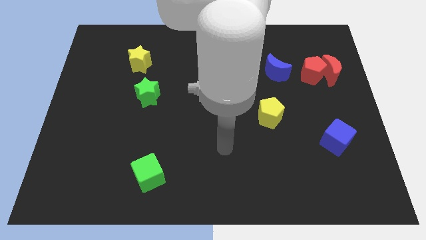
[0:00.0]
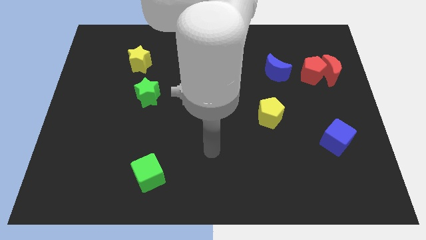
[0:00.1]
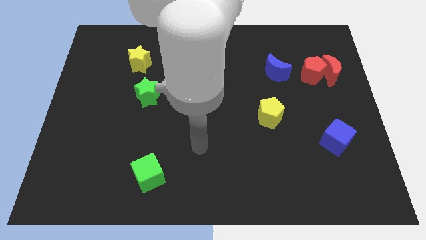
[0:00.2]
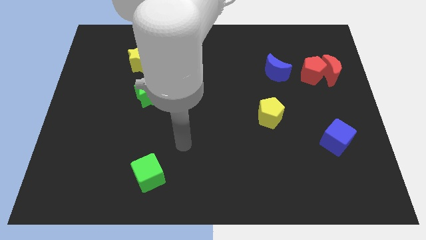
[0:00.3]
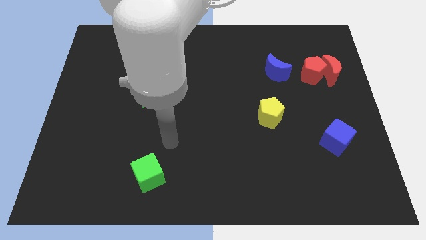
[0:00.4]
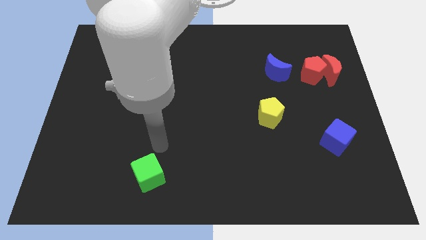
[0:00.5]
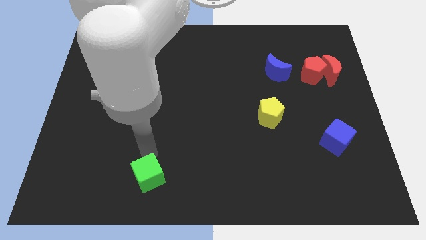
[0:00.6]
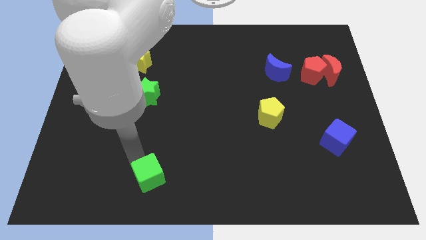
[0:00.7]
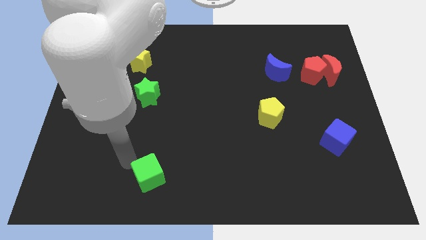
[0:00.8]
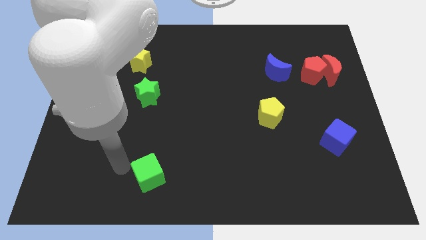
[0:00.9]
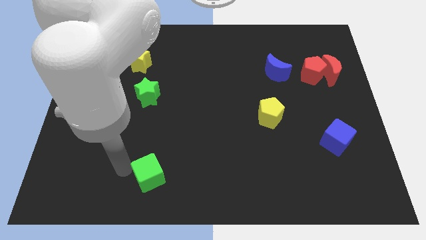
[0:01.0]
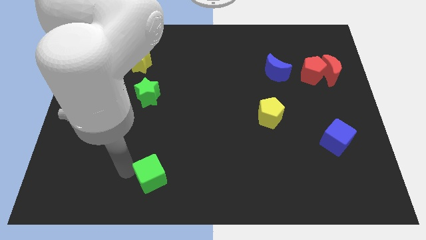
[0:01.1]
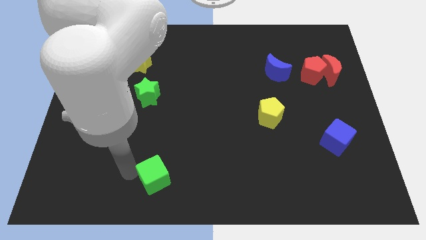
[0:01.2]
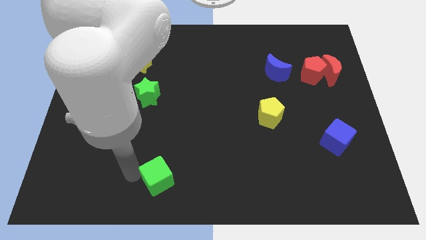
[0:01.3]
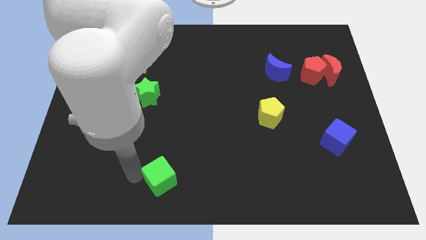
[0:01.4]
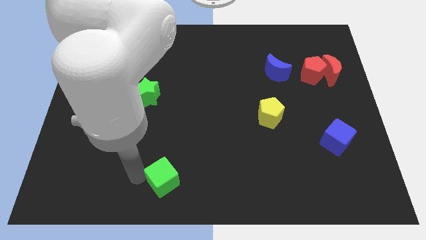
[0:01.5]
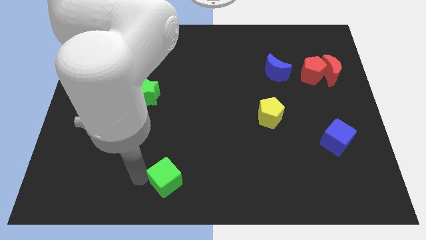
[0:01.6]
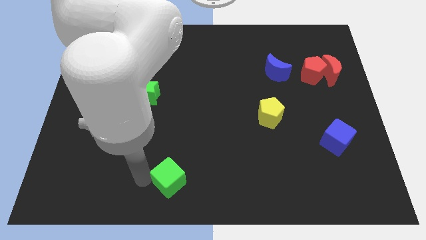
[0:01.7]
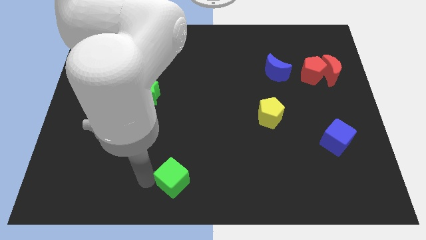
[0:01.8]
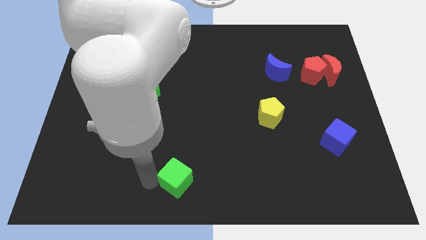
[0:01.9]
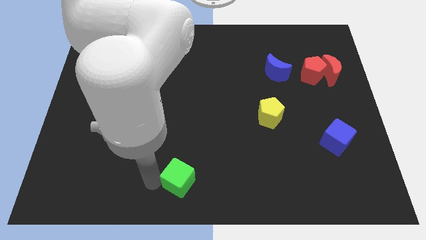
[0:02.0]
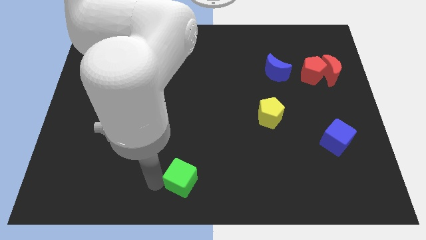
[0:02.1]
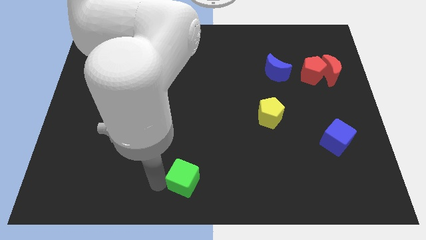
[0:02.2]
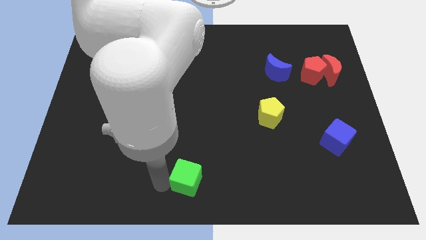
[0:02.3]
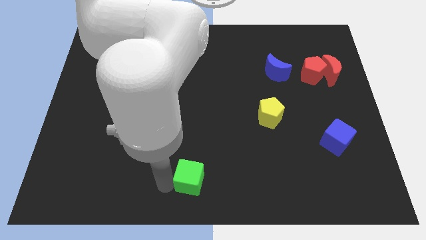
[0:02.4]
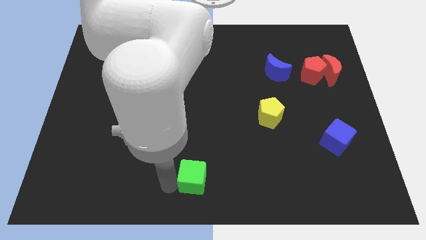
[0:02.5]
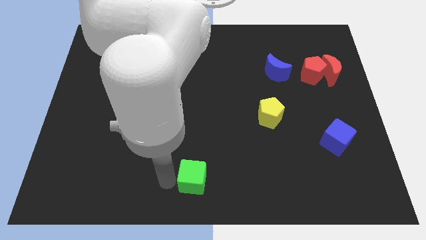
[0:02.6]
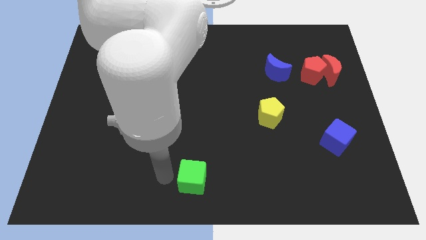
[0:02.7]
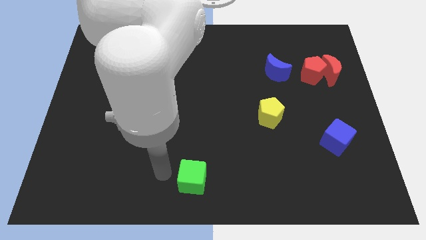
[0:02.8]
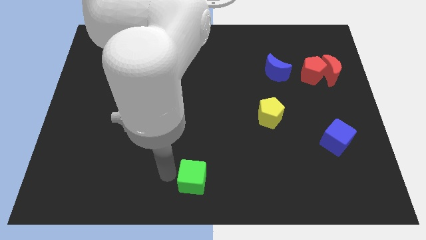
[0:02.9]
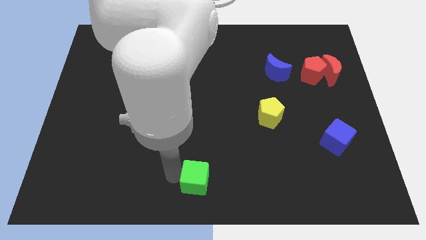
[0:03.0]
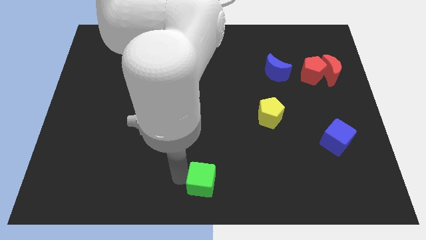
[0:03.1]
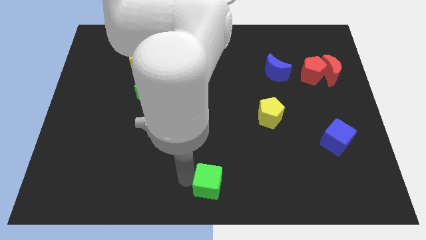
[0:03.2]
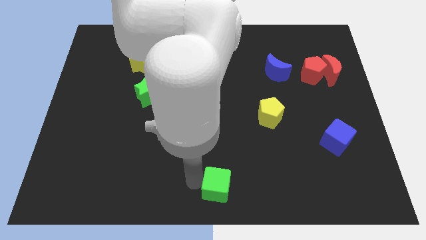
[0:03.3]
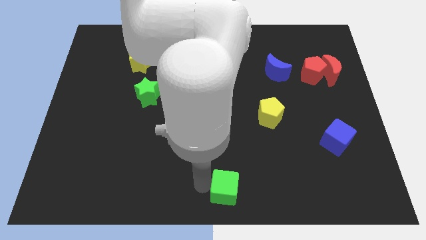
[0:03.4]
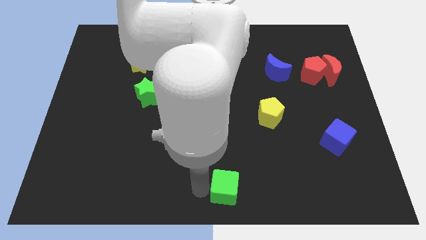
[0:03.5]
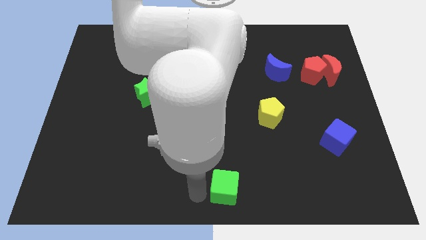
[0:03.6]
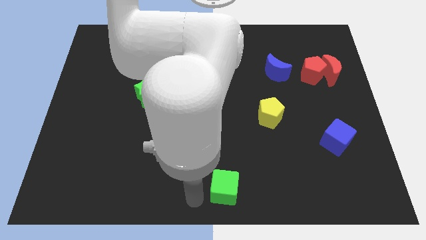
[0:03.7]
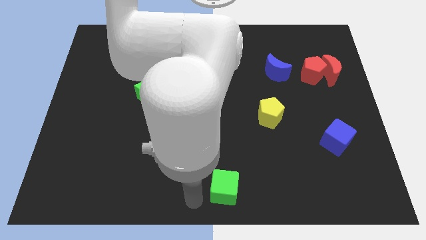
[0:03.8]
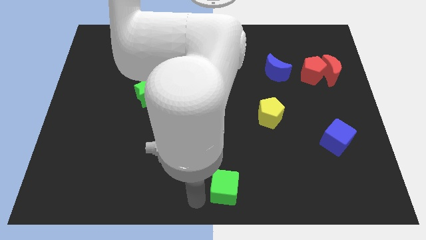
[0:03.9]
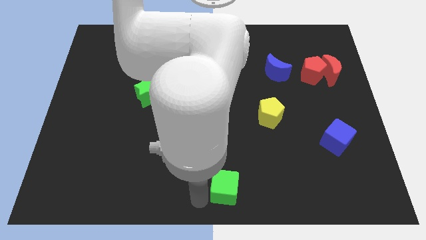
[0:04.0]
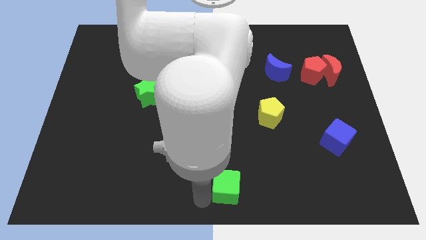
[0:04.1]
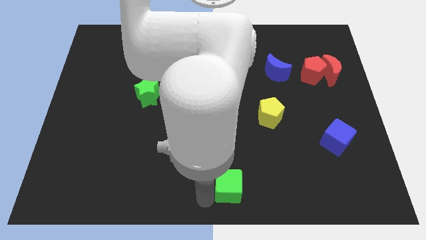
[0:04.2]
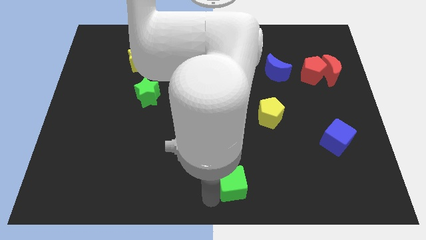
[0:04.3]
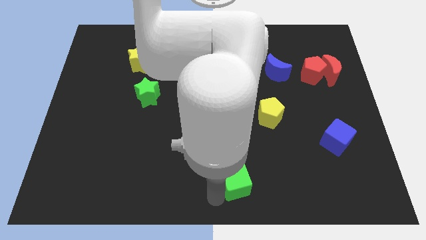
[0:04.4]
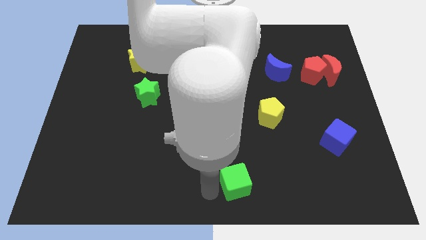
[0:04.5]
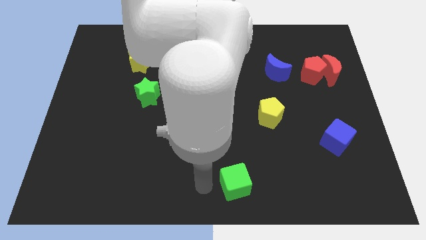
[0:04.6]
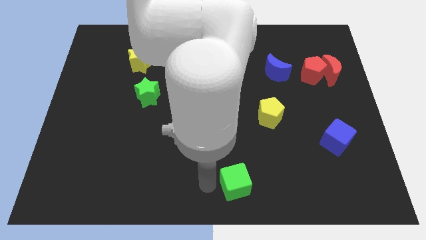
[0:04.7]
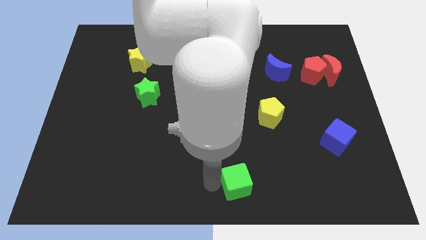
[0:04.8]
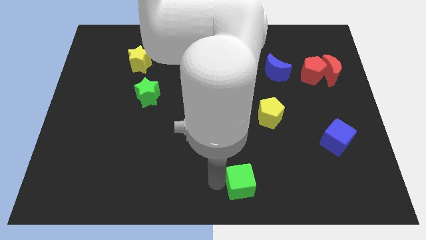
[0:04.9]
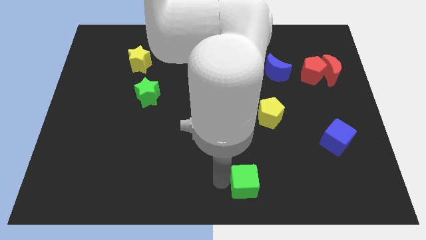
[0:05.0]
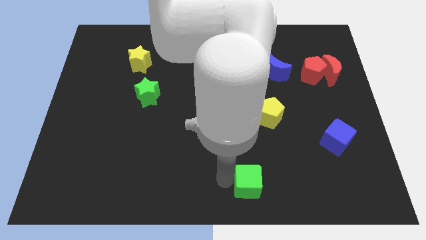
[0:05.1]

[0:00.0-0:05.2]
push the green cube to the right

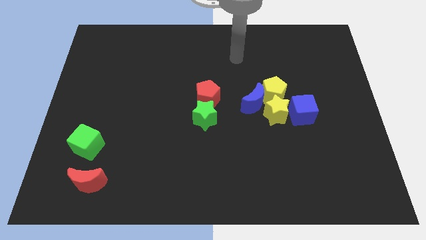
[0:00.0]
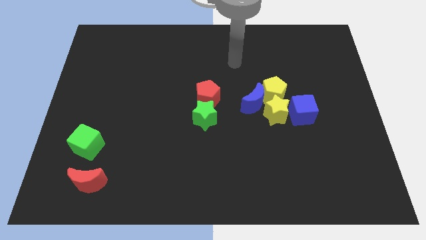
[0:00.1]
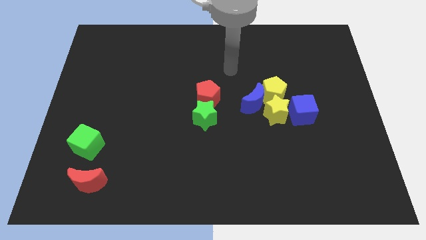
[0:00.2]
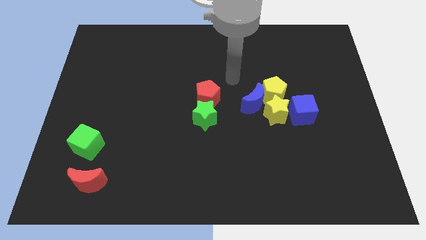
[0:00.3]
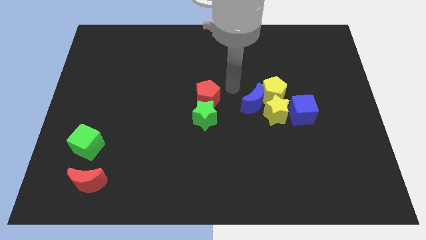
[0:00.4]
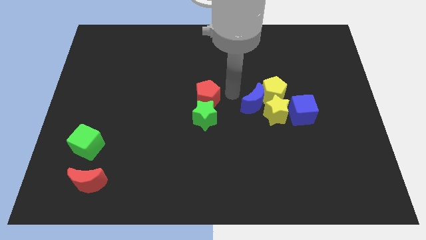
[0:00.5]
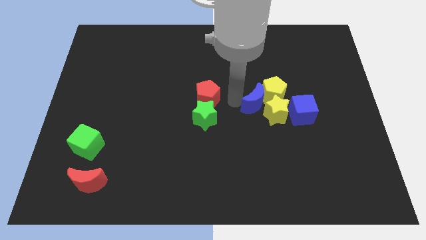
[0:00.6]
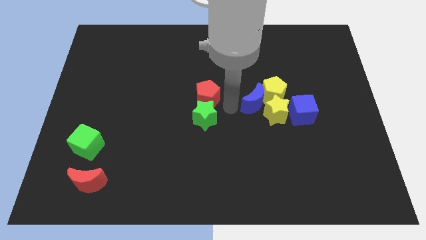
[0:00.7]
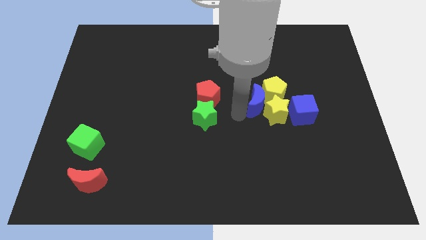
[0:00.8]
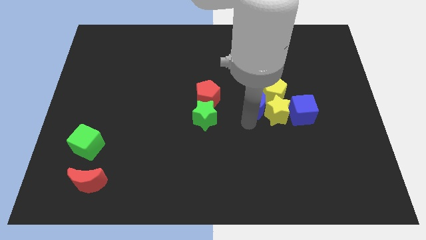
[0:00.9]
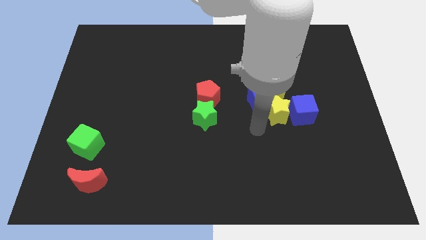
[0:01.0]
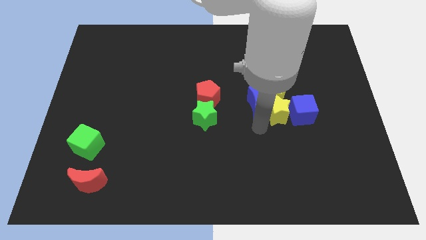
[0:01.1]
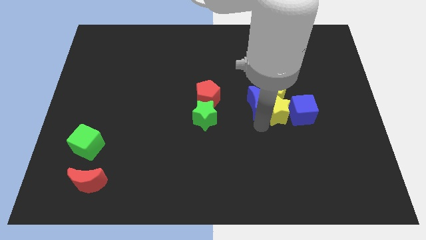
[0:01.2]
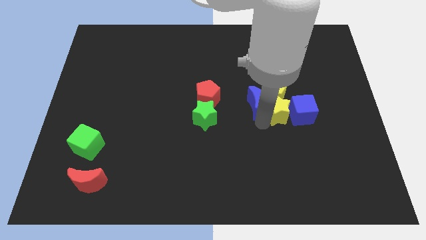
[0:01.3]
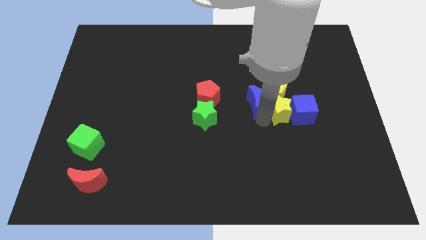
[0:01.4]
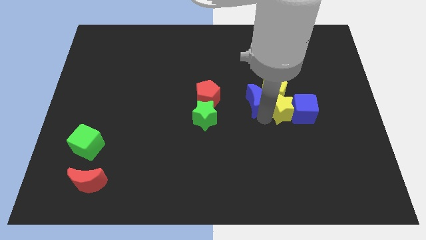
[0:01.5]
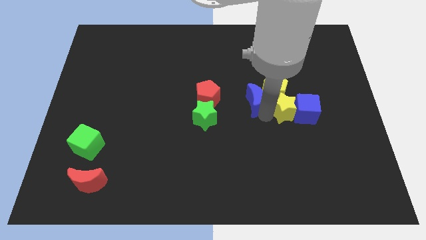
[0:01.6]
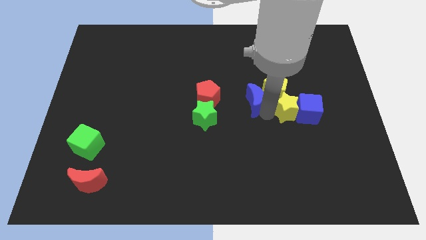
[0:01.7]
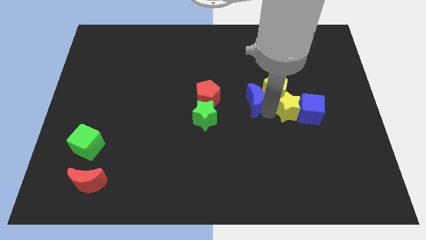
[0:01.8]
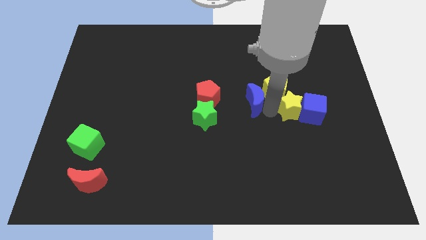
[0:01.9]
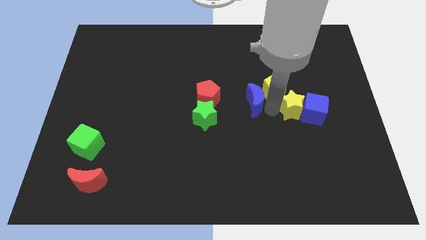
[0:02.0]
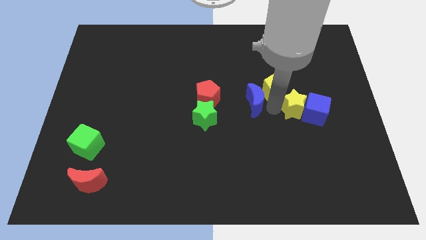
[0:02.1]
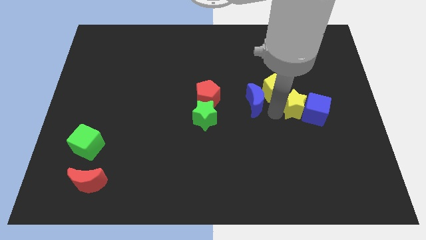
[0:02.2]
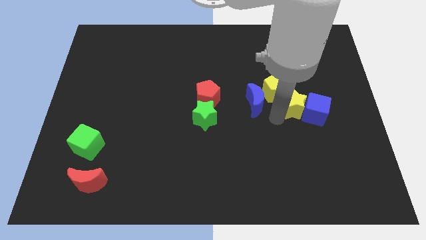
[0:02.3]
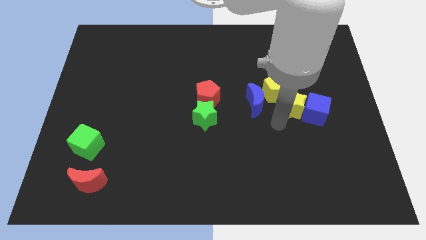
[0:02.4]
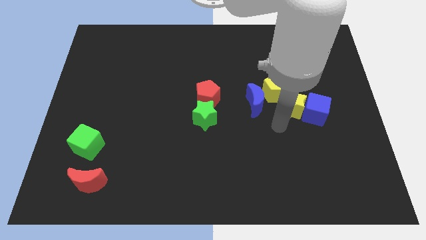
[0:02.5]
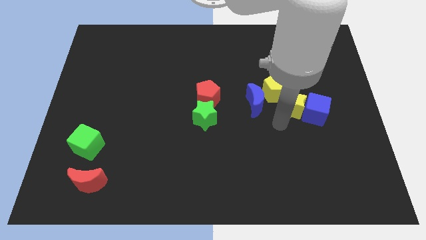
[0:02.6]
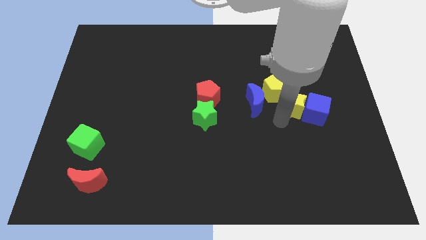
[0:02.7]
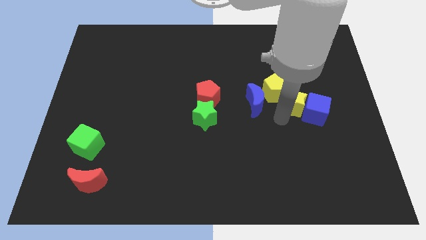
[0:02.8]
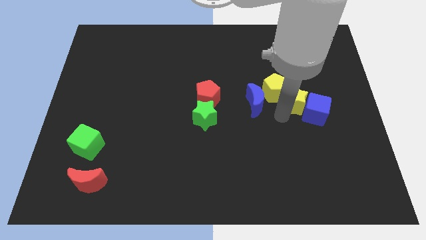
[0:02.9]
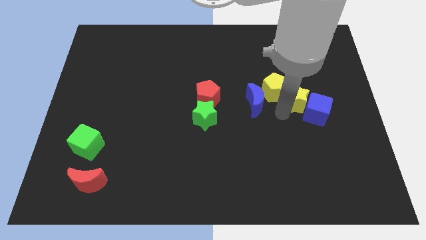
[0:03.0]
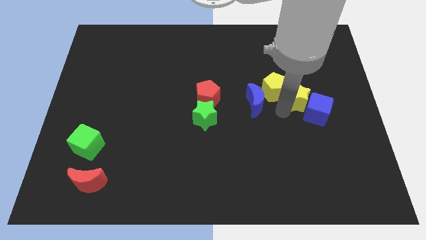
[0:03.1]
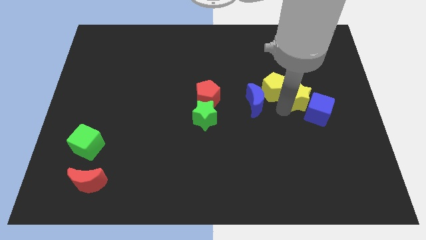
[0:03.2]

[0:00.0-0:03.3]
slide the yellow star up and then to the right slightly
